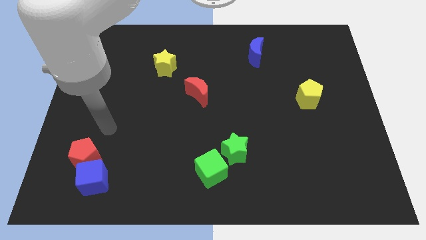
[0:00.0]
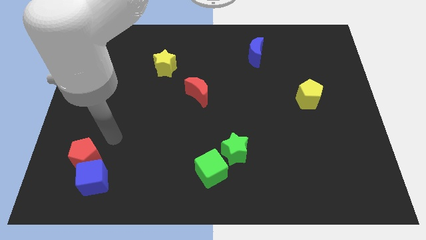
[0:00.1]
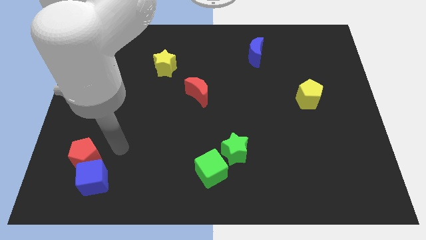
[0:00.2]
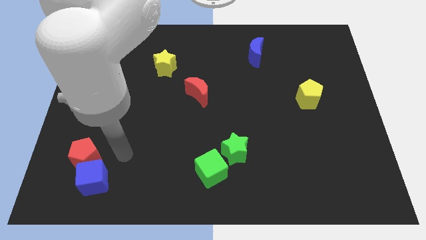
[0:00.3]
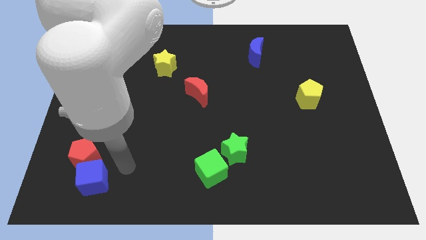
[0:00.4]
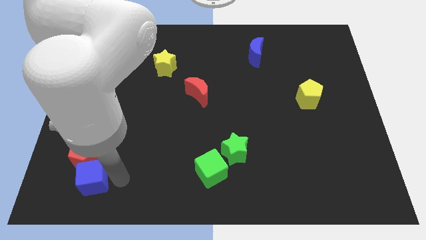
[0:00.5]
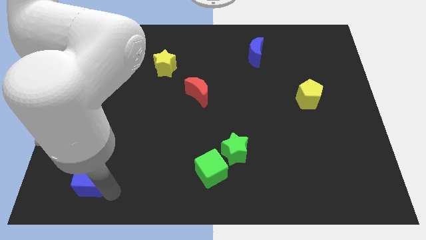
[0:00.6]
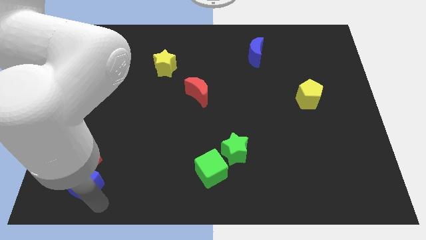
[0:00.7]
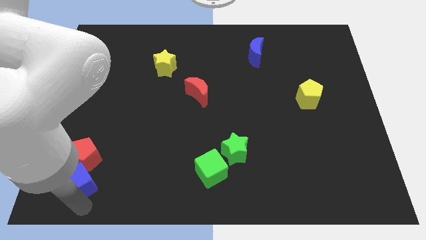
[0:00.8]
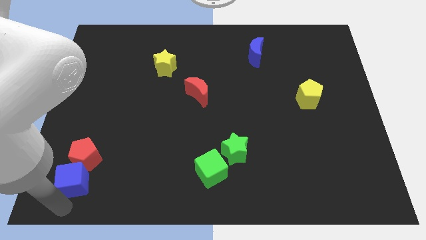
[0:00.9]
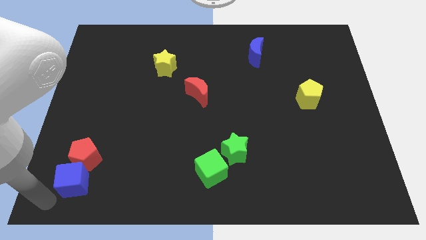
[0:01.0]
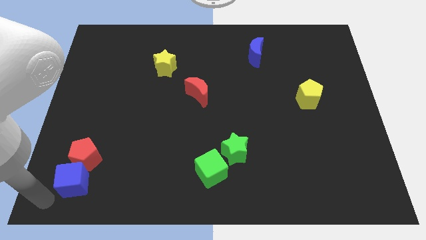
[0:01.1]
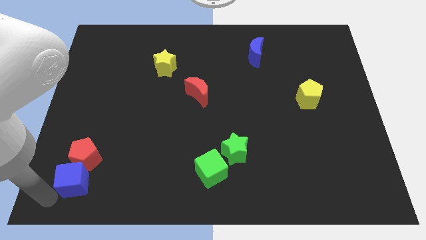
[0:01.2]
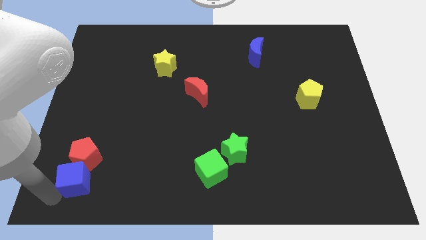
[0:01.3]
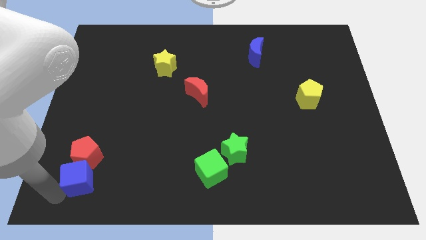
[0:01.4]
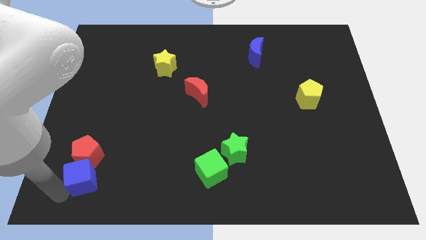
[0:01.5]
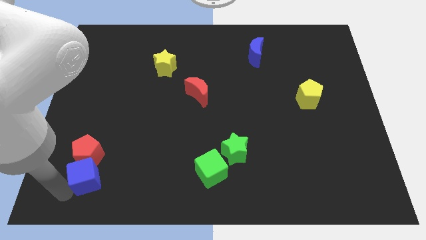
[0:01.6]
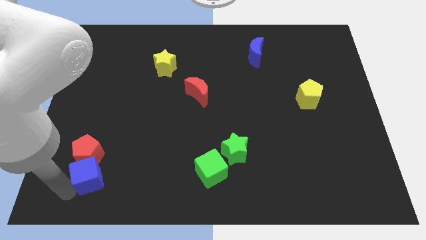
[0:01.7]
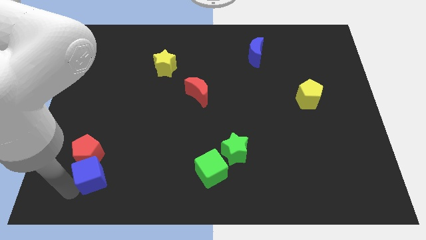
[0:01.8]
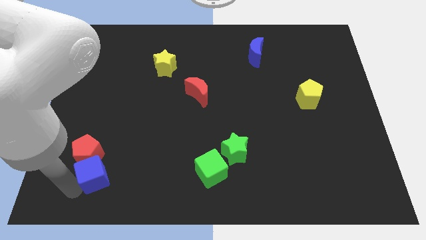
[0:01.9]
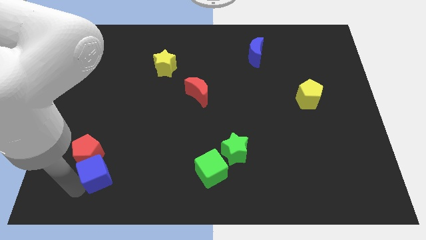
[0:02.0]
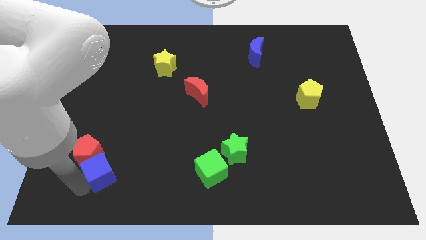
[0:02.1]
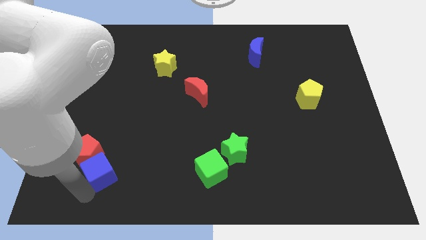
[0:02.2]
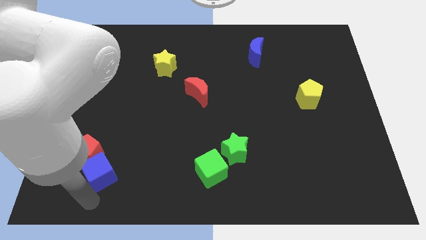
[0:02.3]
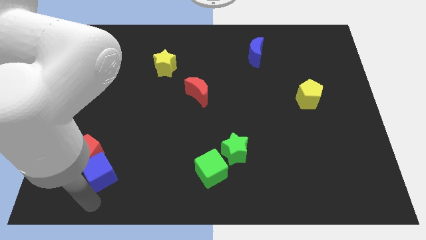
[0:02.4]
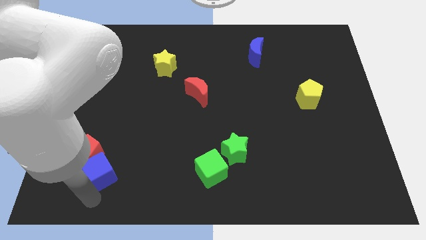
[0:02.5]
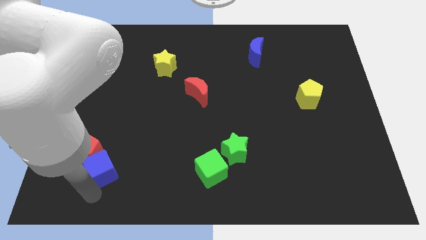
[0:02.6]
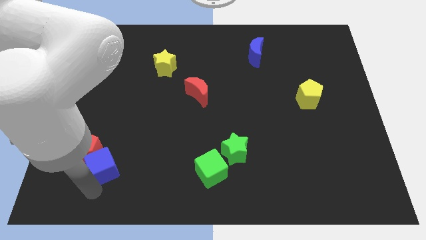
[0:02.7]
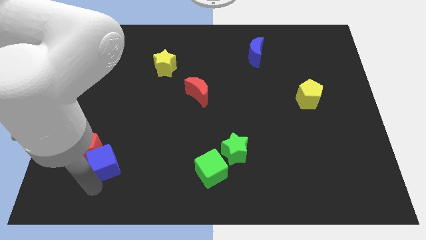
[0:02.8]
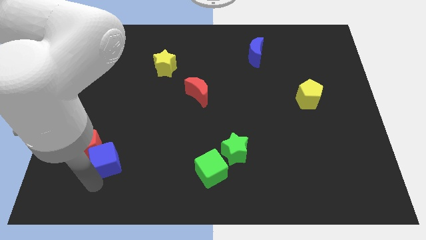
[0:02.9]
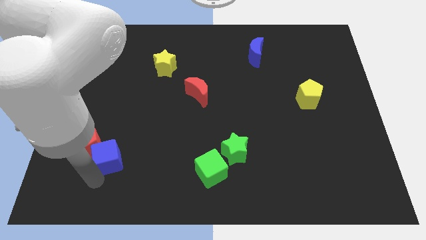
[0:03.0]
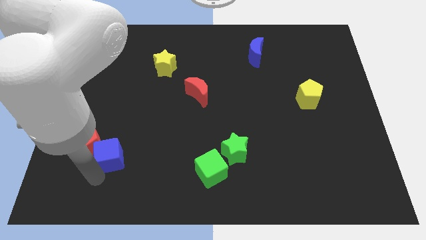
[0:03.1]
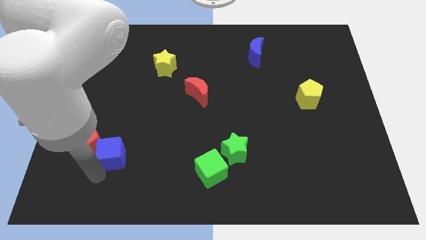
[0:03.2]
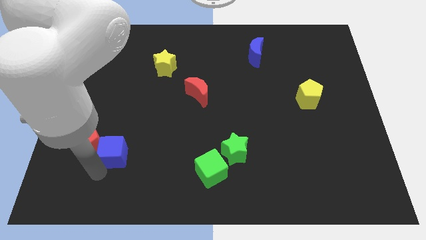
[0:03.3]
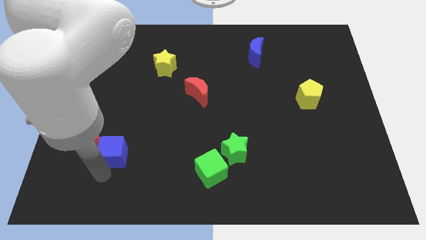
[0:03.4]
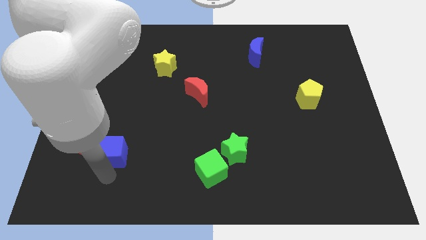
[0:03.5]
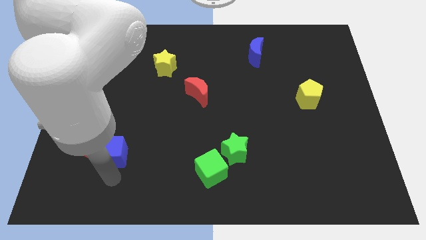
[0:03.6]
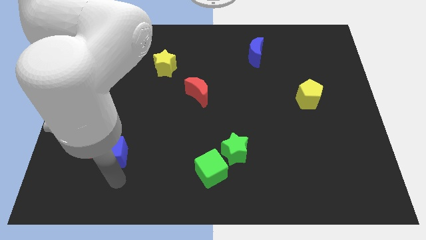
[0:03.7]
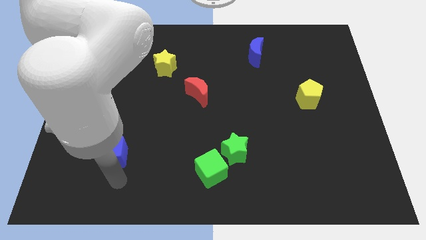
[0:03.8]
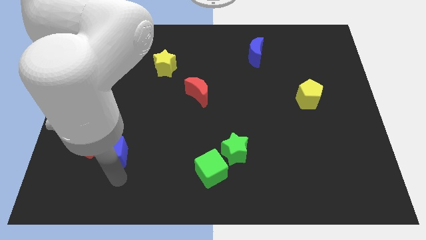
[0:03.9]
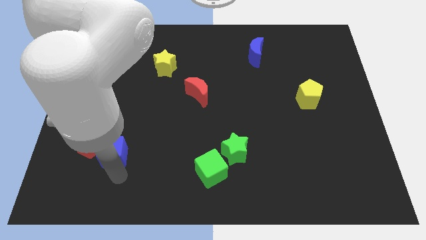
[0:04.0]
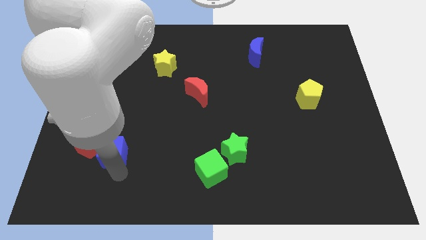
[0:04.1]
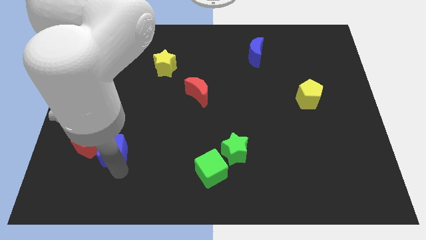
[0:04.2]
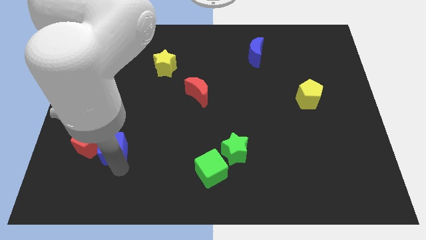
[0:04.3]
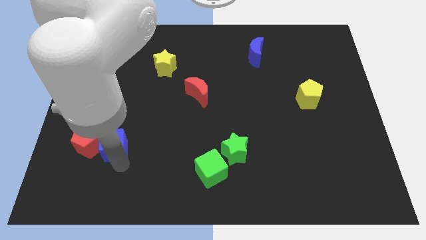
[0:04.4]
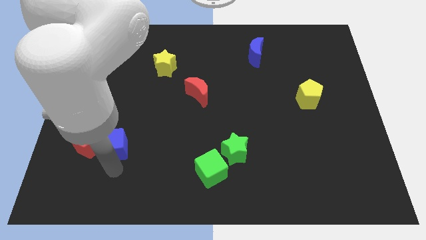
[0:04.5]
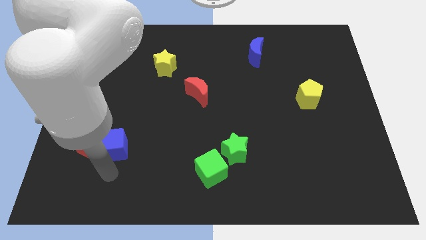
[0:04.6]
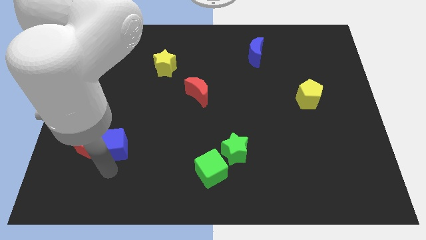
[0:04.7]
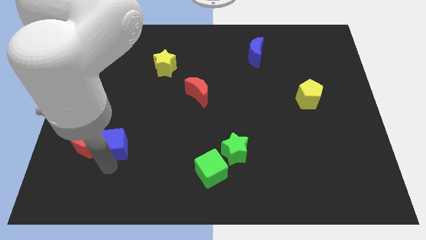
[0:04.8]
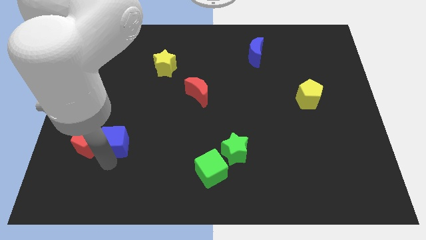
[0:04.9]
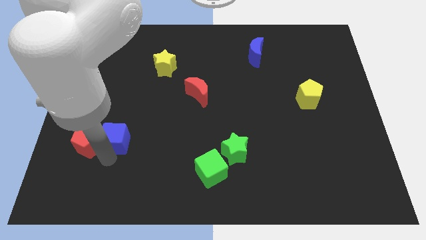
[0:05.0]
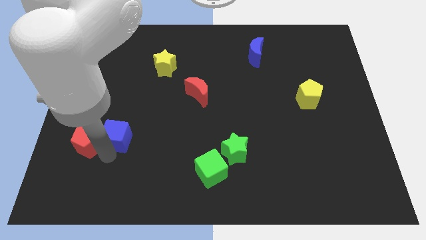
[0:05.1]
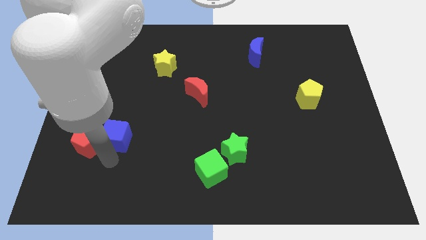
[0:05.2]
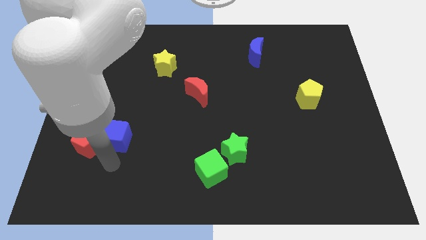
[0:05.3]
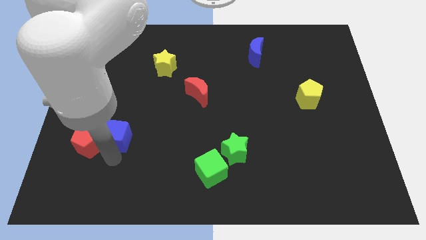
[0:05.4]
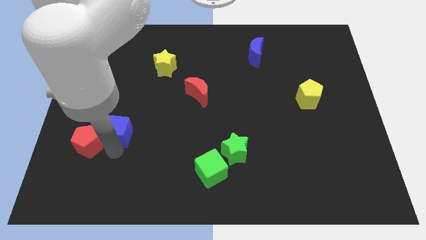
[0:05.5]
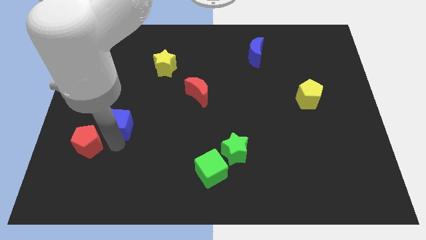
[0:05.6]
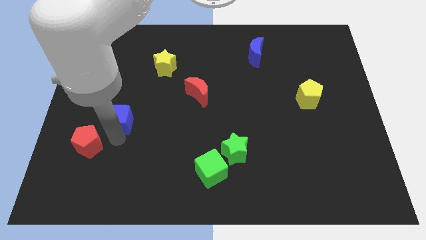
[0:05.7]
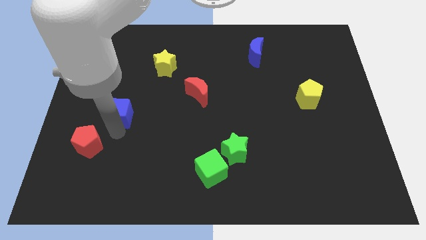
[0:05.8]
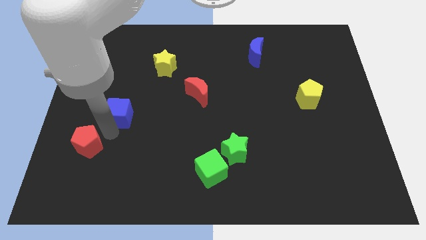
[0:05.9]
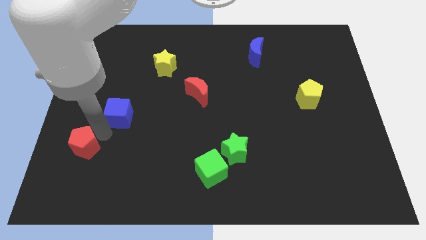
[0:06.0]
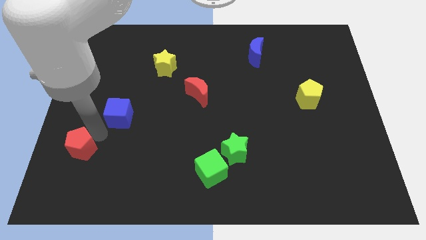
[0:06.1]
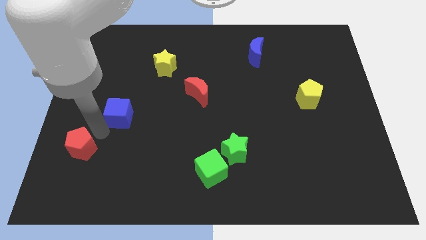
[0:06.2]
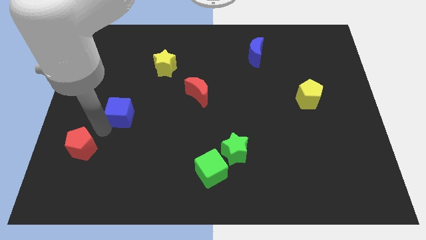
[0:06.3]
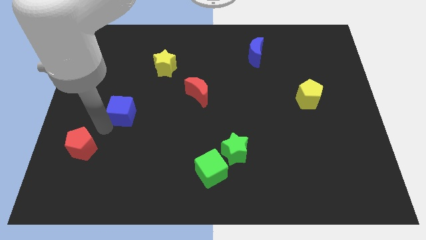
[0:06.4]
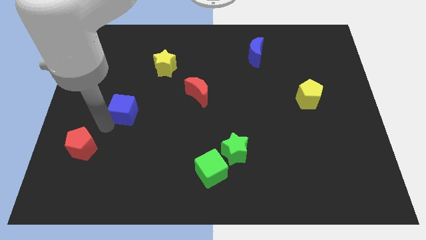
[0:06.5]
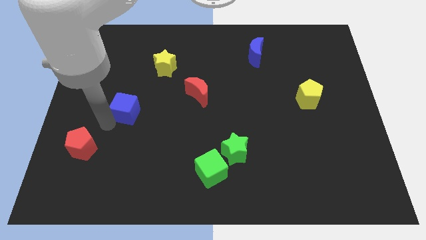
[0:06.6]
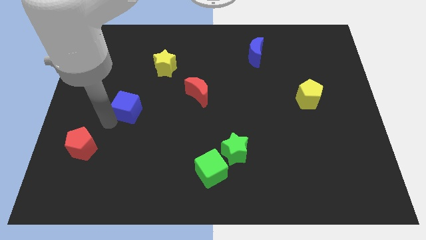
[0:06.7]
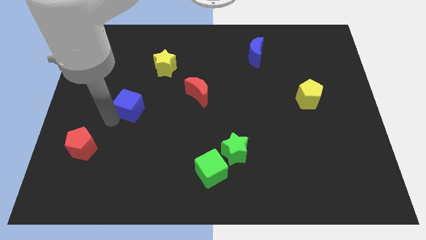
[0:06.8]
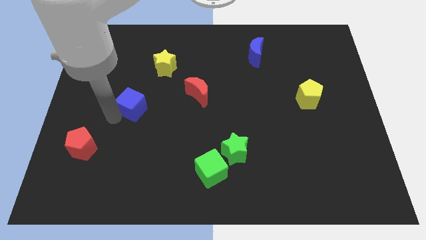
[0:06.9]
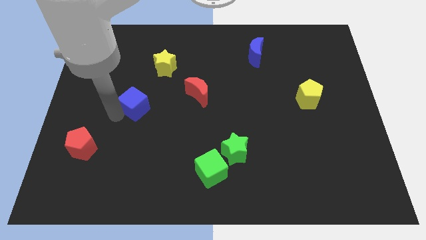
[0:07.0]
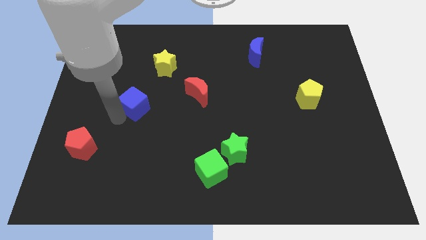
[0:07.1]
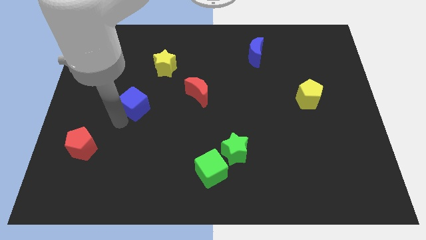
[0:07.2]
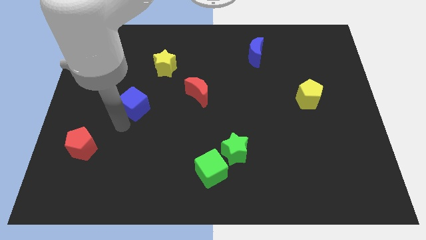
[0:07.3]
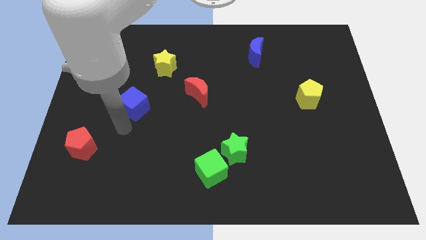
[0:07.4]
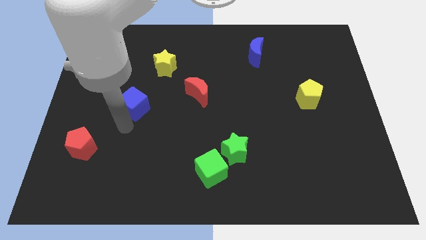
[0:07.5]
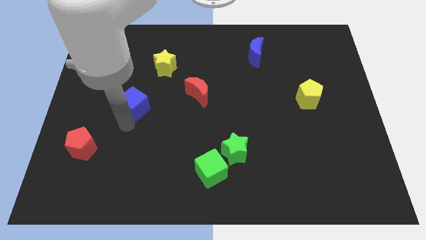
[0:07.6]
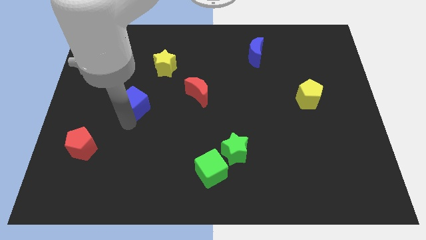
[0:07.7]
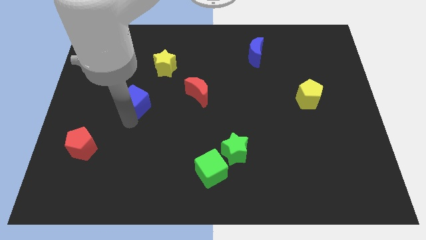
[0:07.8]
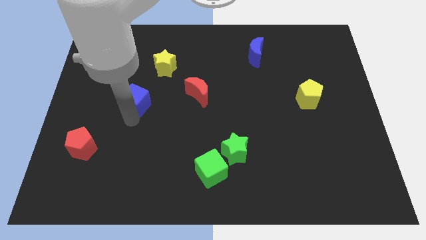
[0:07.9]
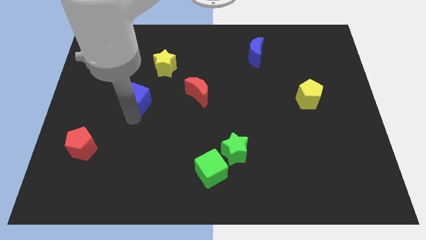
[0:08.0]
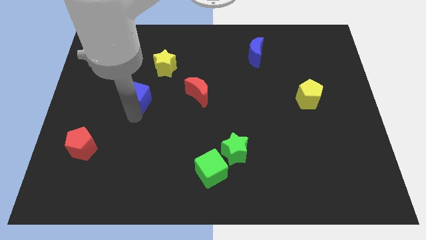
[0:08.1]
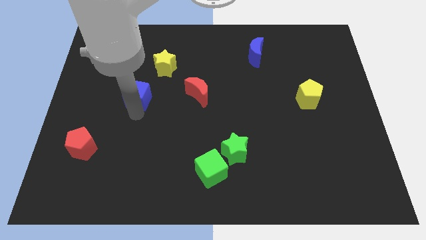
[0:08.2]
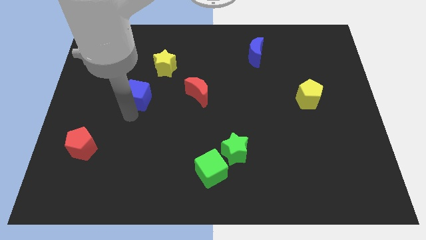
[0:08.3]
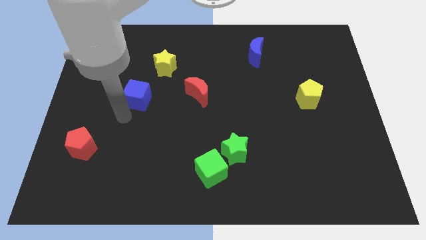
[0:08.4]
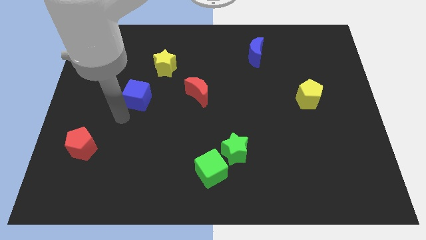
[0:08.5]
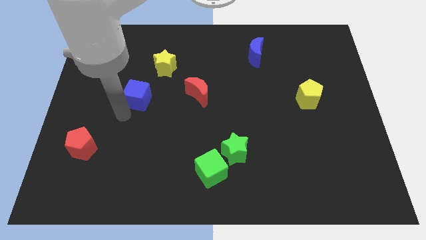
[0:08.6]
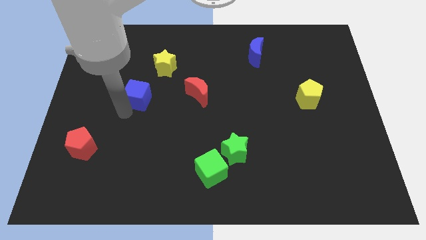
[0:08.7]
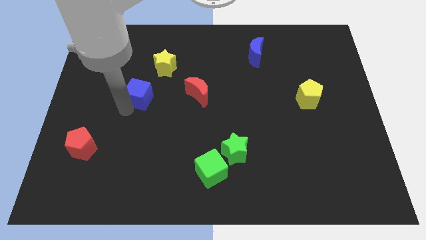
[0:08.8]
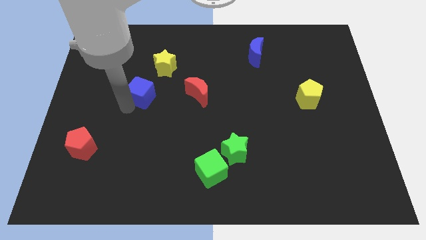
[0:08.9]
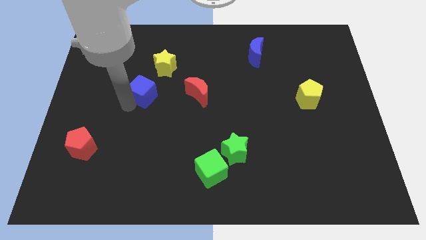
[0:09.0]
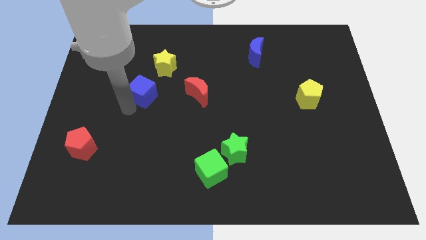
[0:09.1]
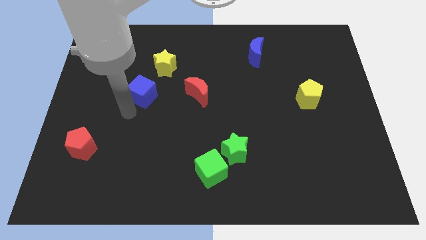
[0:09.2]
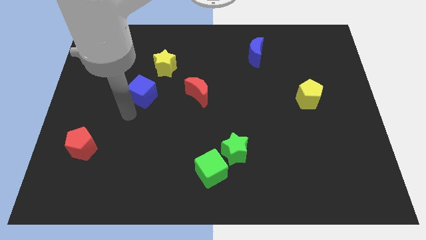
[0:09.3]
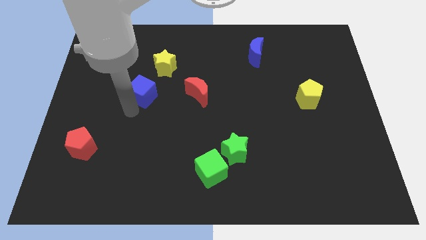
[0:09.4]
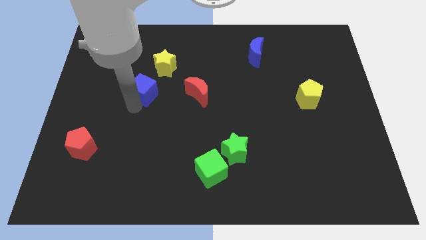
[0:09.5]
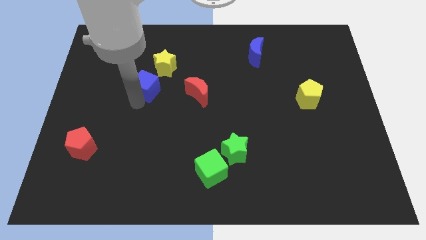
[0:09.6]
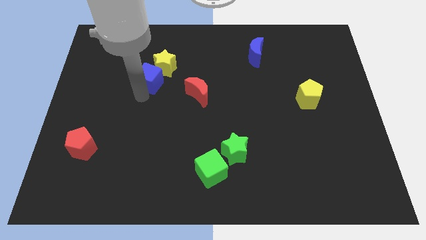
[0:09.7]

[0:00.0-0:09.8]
slide the blue cube to the yellow star
